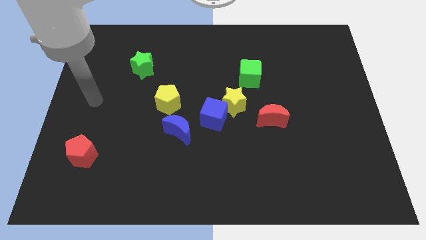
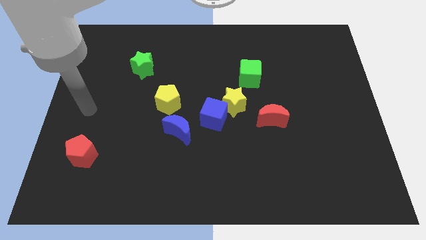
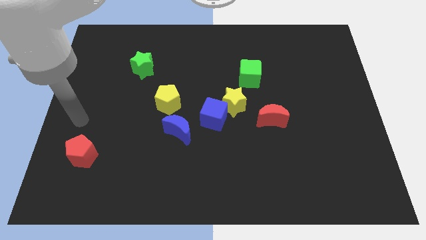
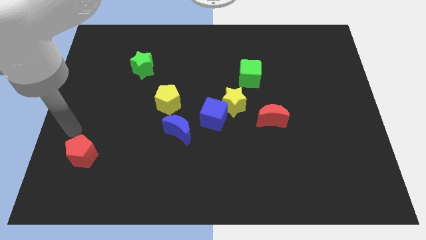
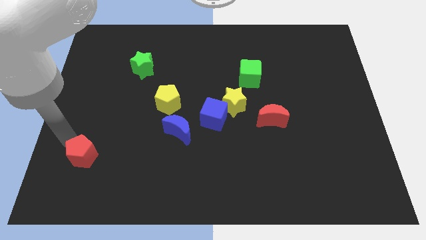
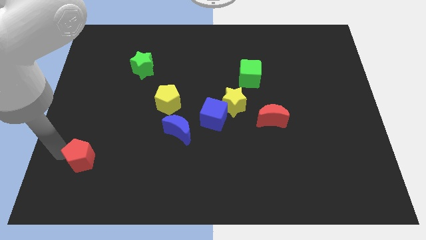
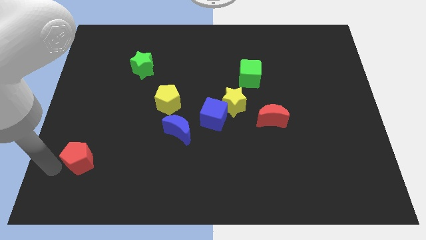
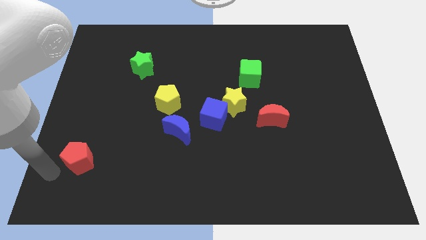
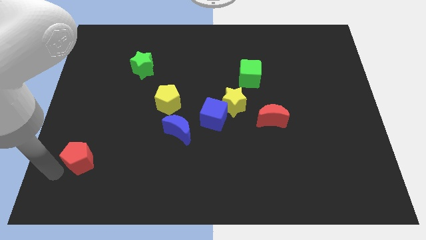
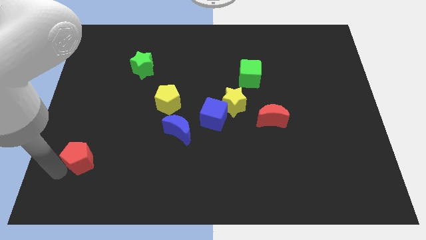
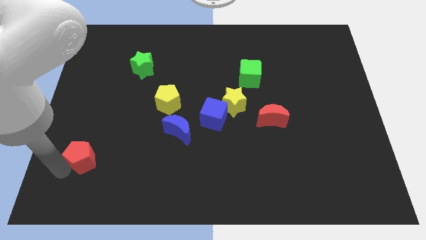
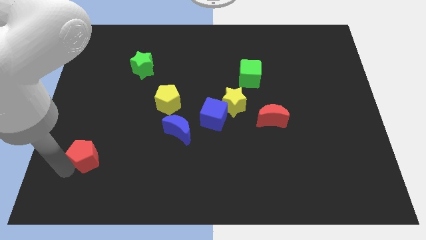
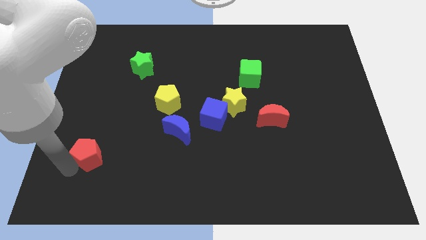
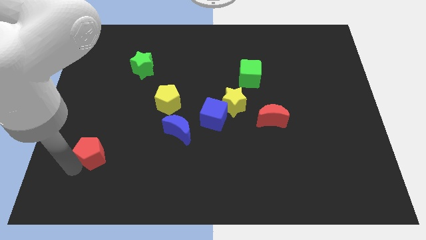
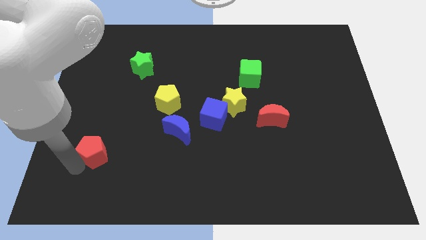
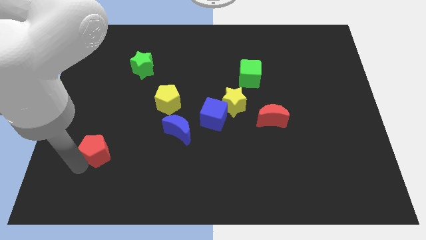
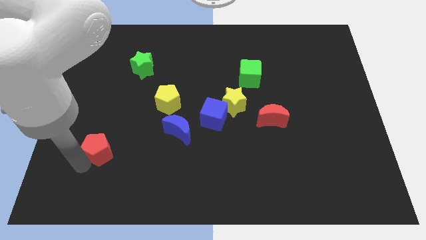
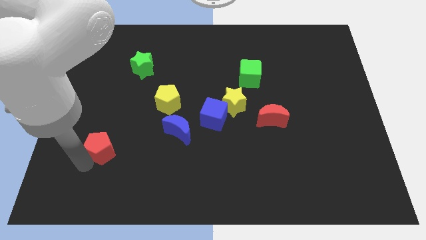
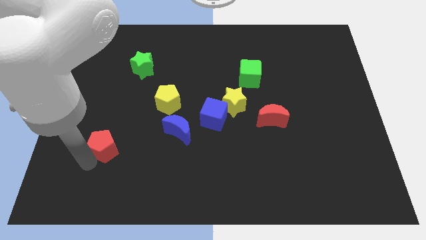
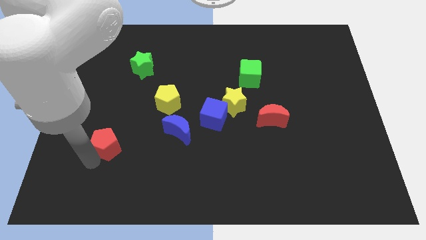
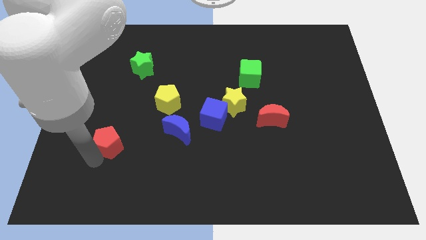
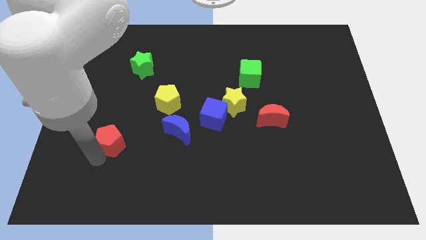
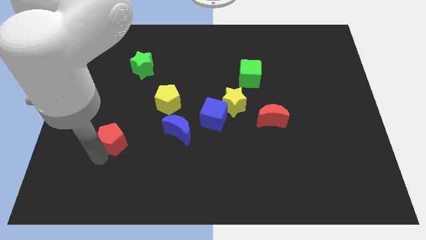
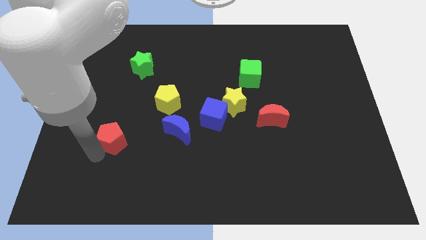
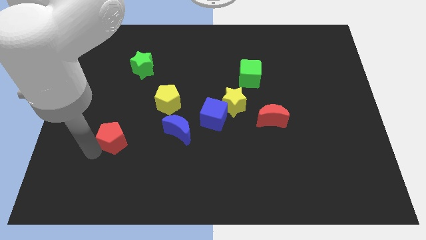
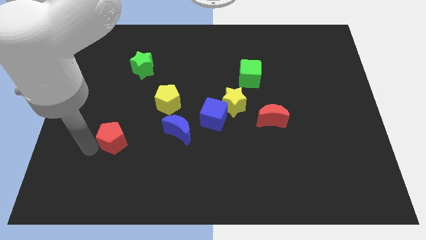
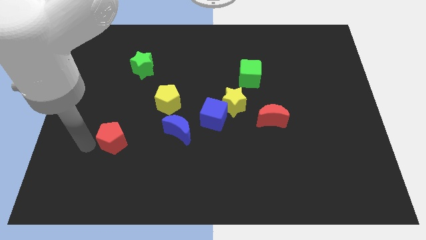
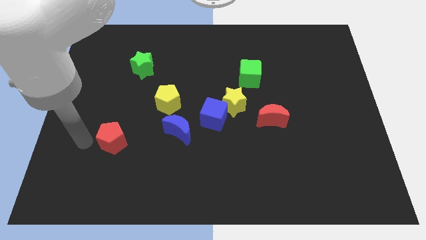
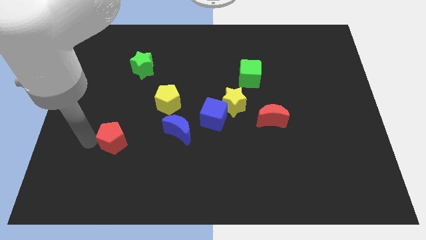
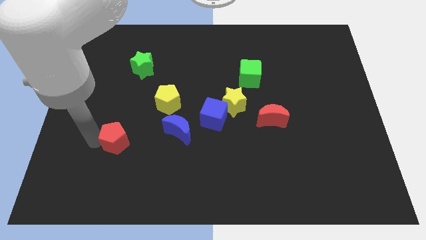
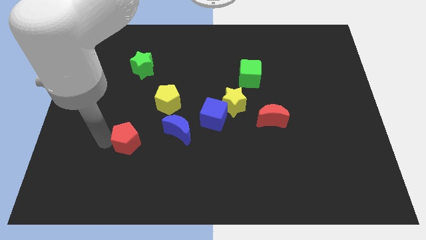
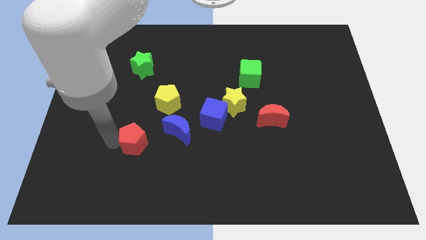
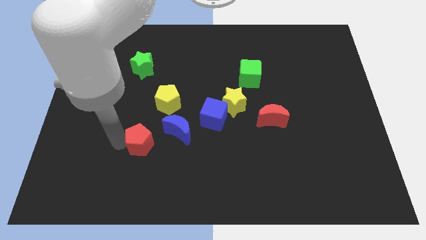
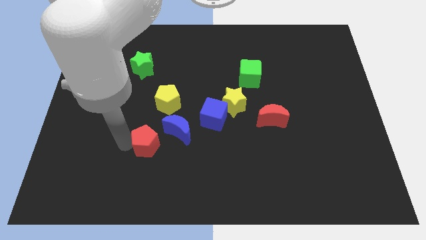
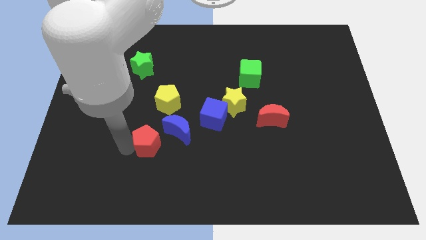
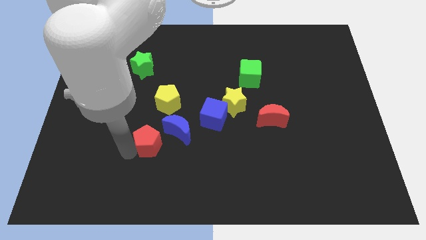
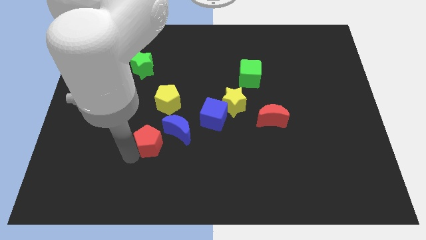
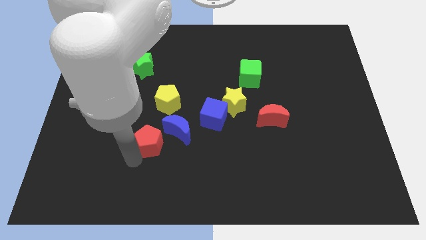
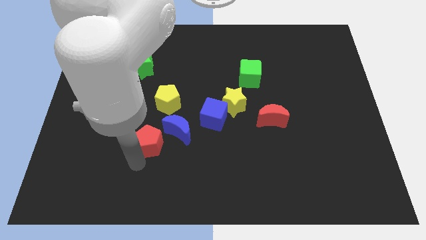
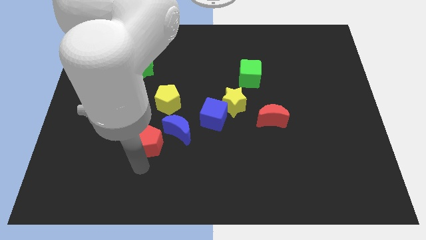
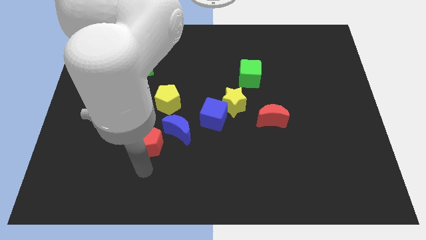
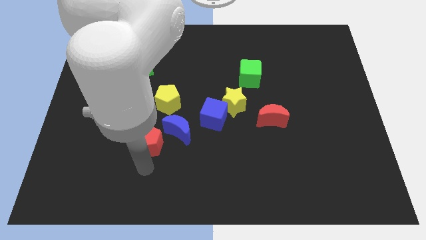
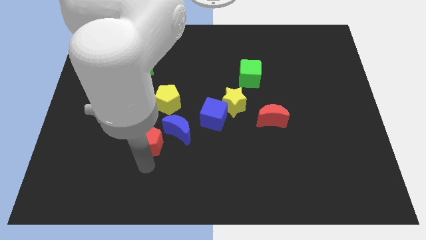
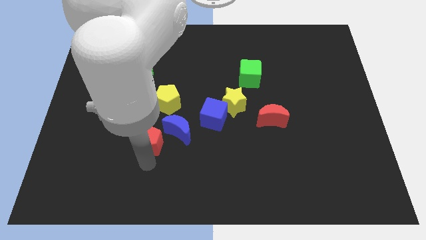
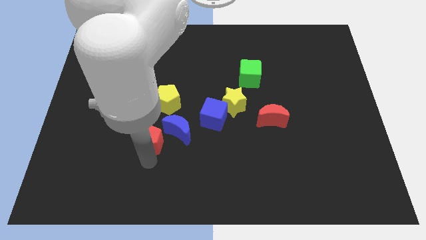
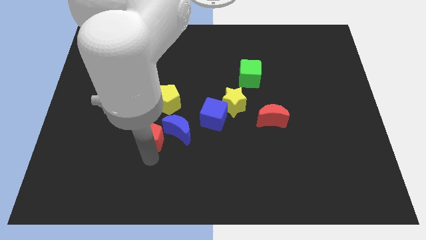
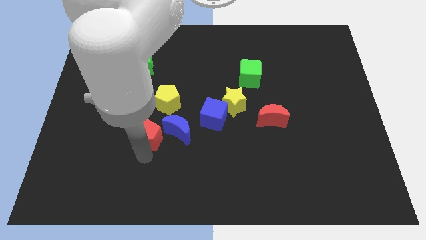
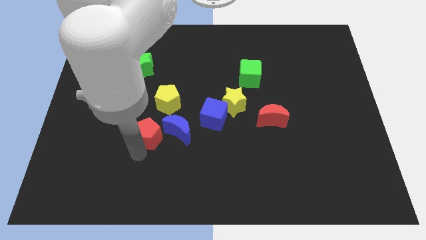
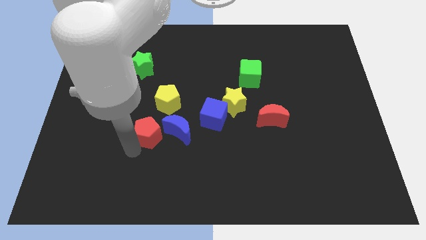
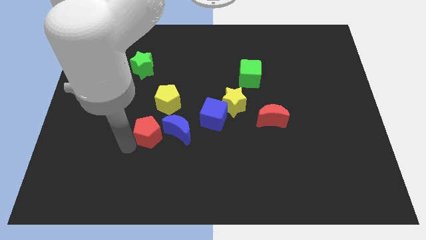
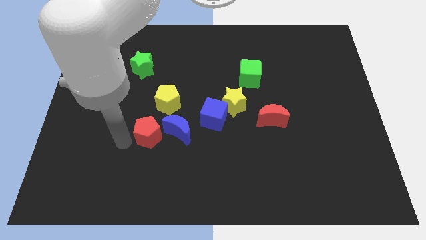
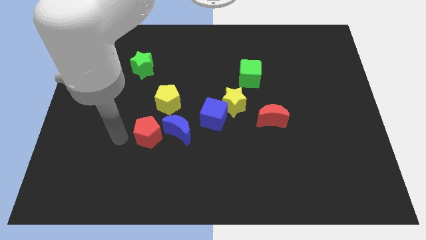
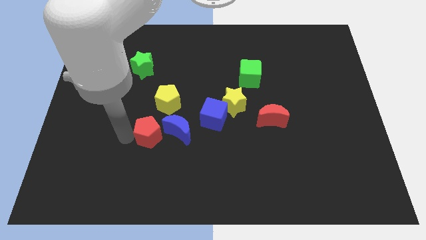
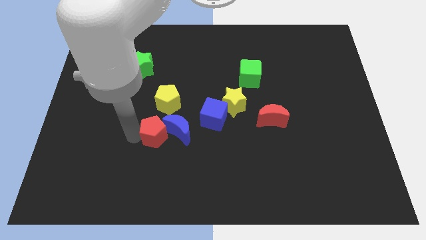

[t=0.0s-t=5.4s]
put the red pentagon next to the blue moon

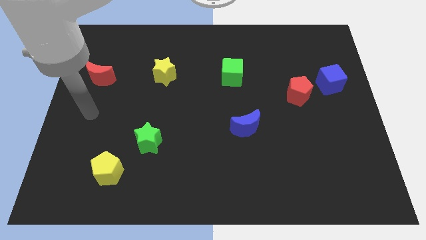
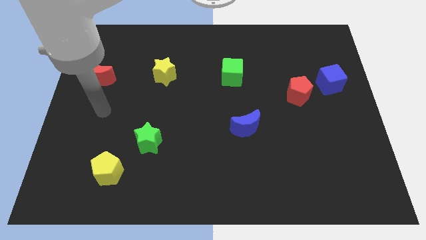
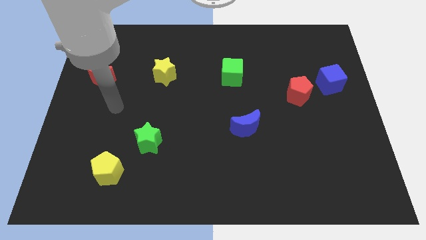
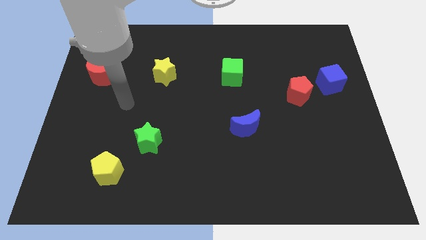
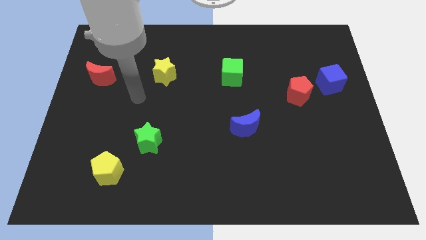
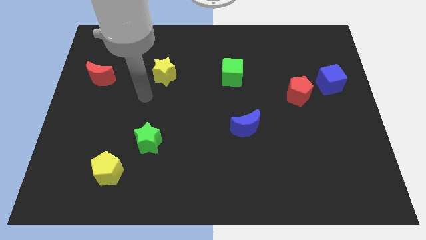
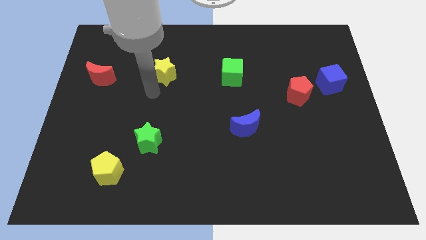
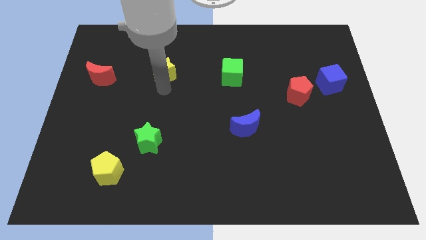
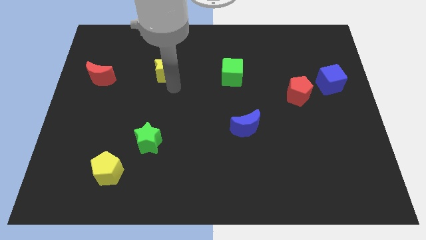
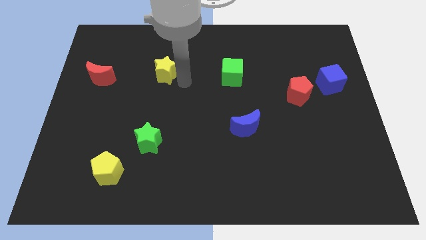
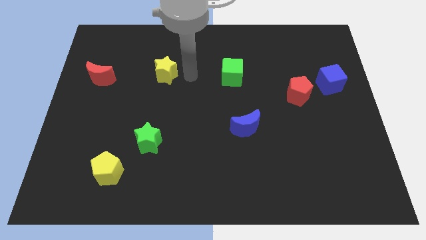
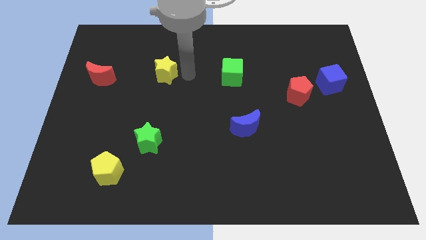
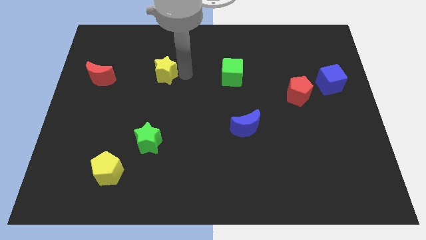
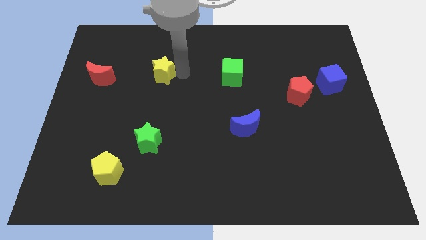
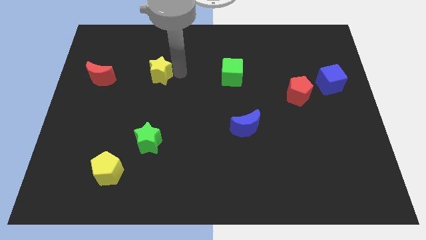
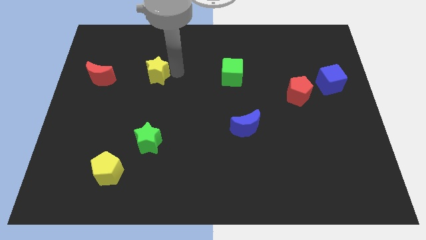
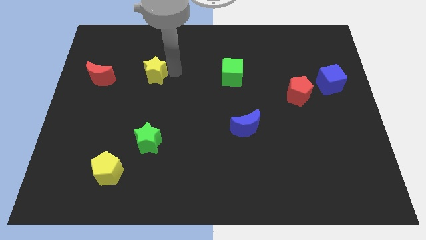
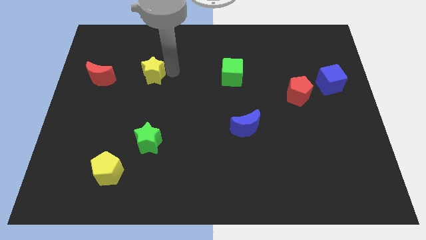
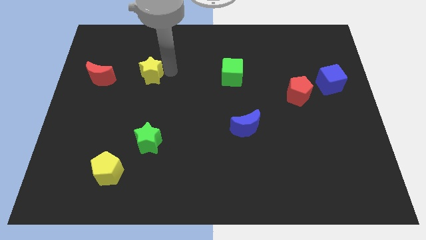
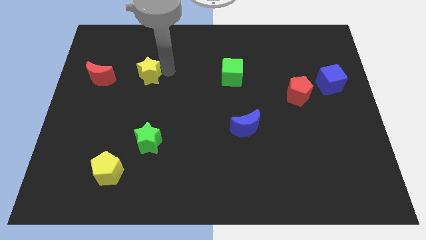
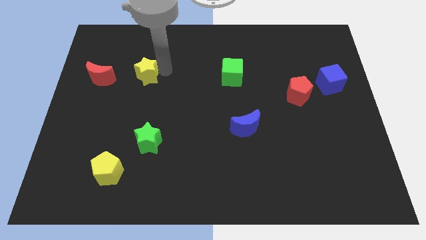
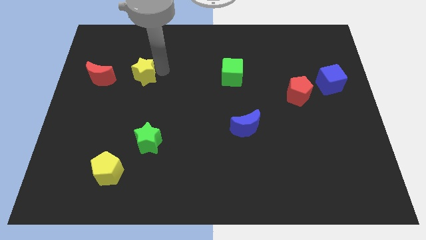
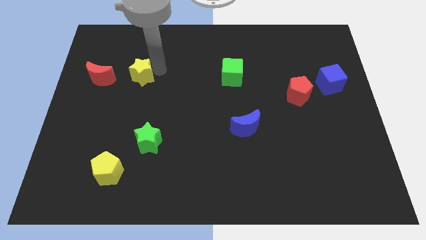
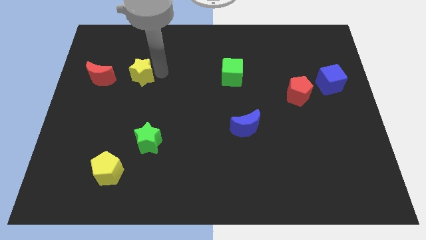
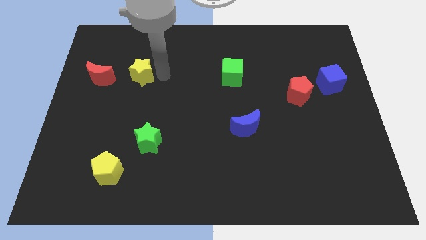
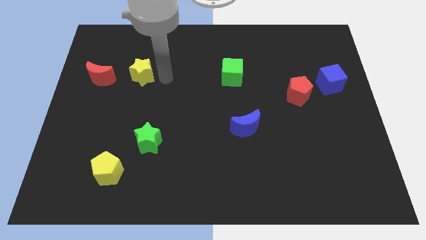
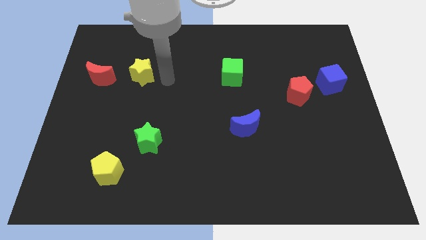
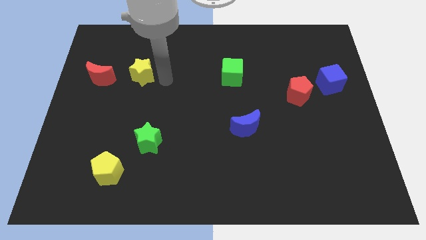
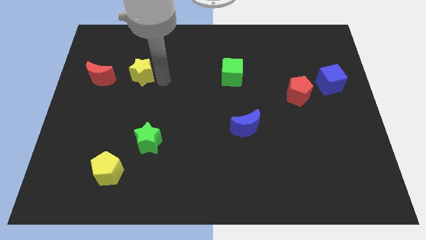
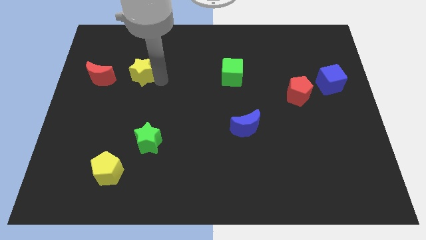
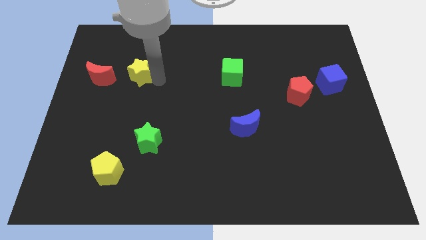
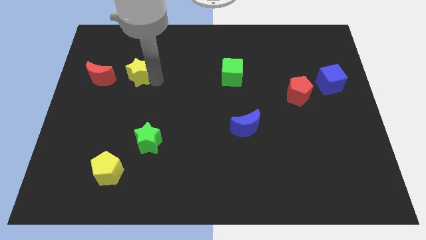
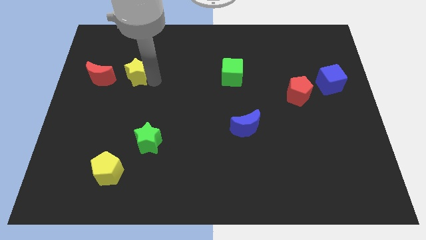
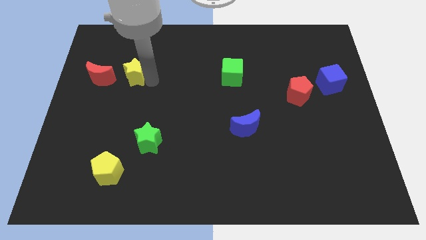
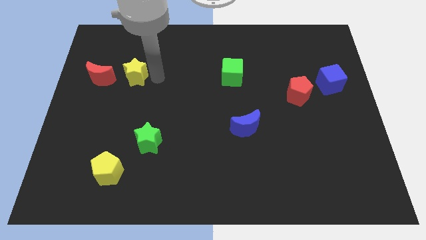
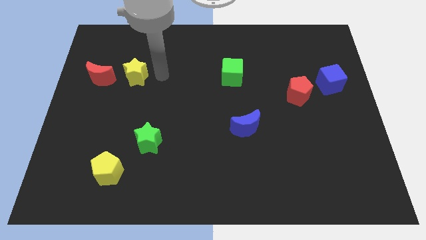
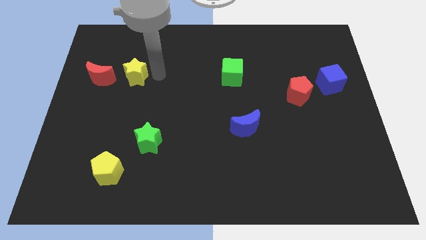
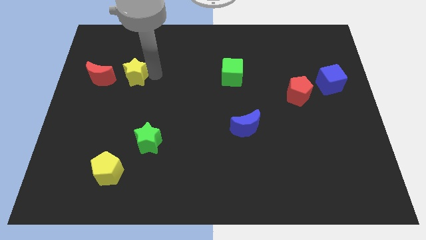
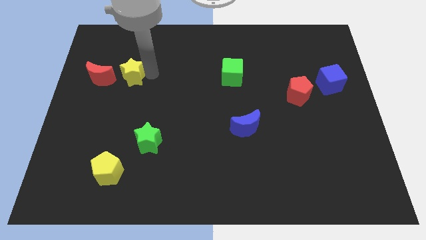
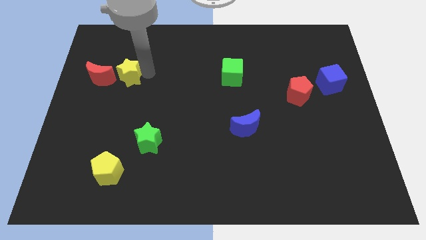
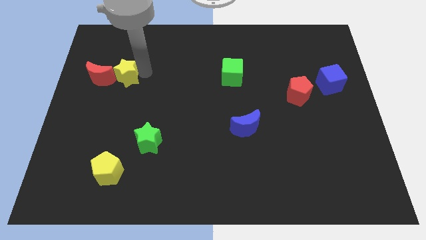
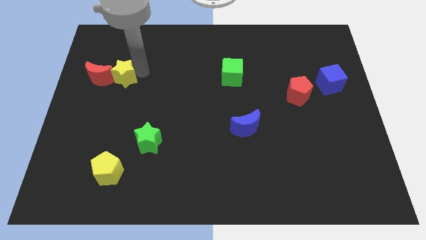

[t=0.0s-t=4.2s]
push the yellow star close to the red moon
